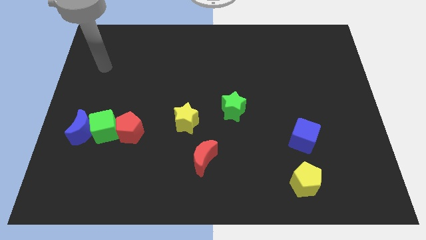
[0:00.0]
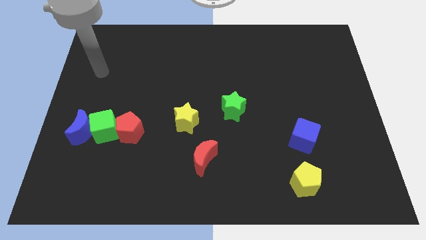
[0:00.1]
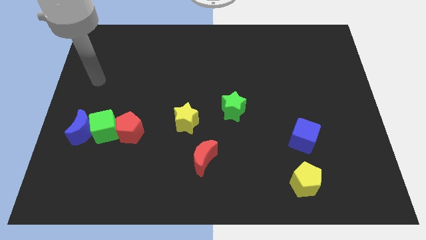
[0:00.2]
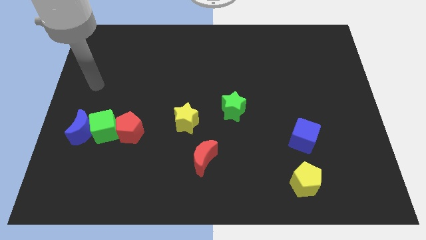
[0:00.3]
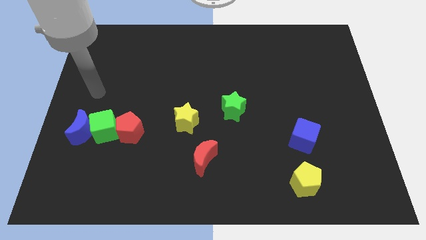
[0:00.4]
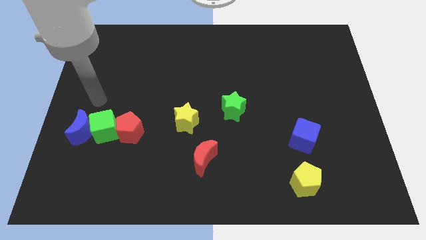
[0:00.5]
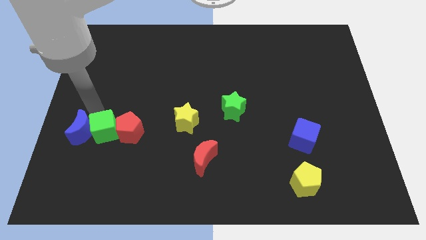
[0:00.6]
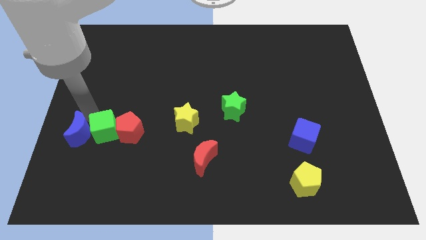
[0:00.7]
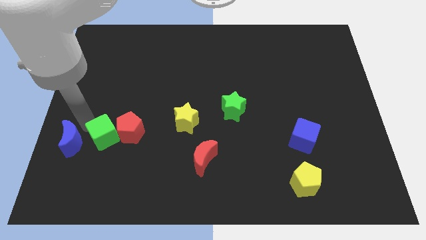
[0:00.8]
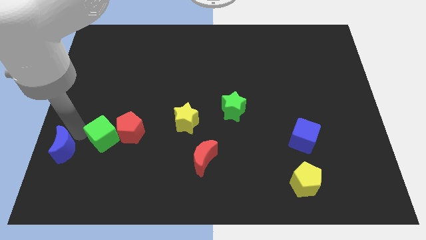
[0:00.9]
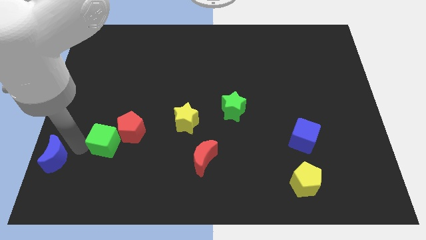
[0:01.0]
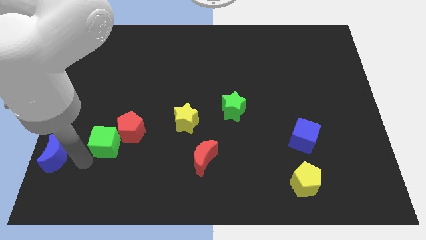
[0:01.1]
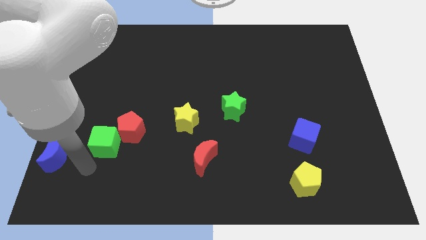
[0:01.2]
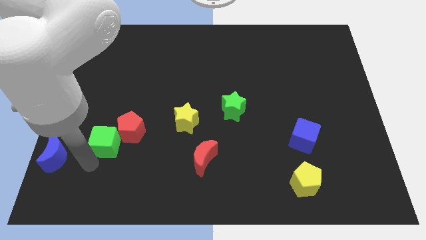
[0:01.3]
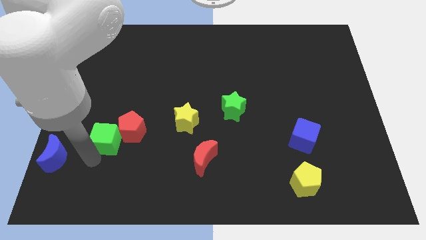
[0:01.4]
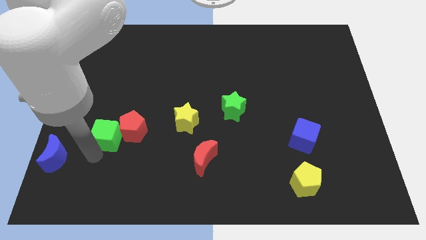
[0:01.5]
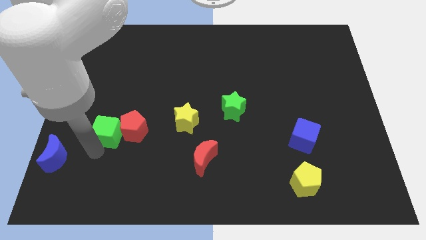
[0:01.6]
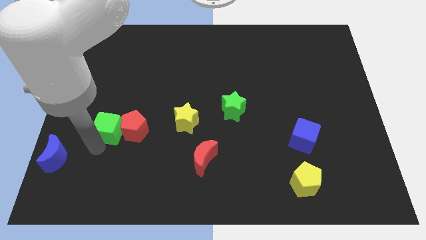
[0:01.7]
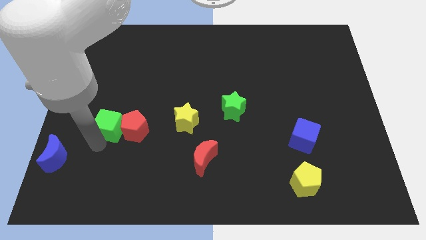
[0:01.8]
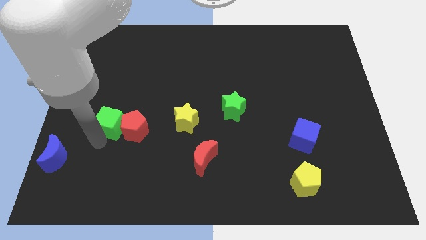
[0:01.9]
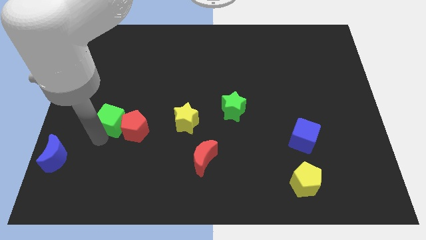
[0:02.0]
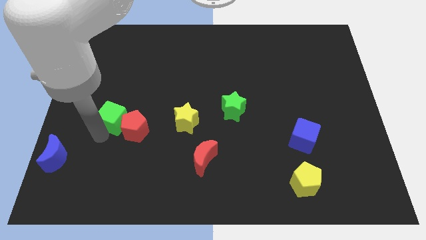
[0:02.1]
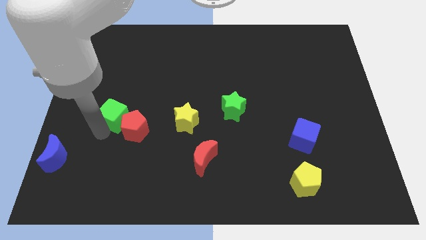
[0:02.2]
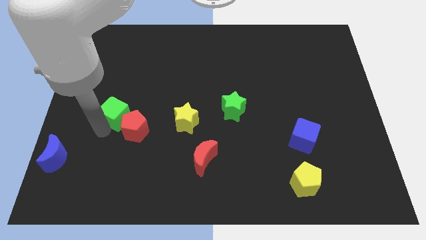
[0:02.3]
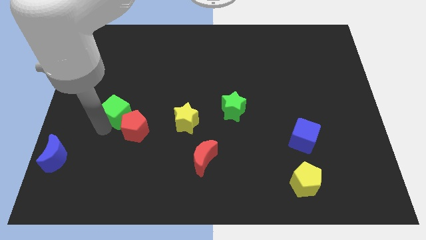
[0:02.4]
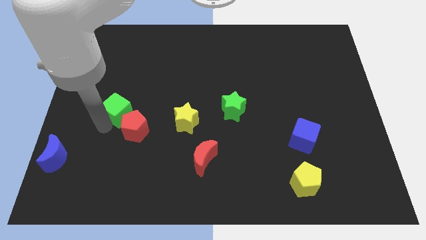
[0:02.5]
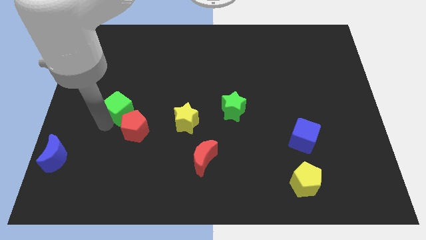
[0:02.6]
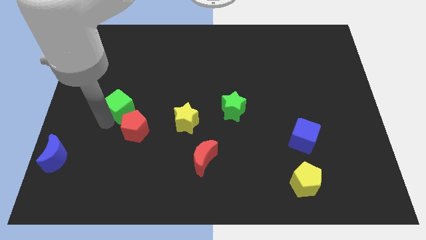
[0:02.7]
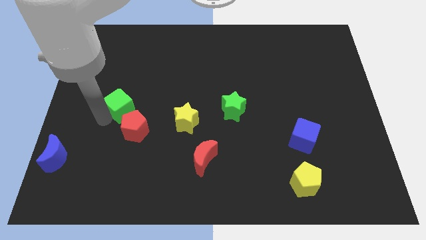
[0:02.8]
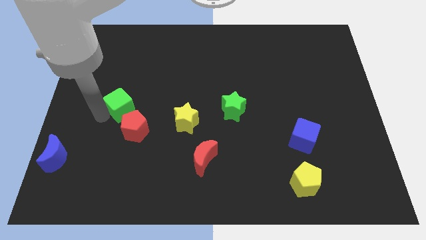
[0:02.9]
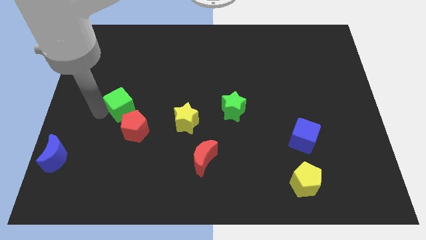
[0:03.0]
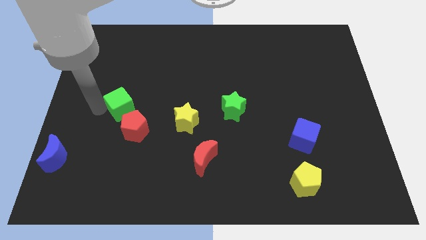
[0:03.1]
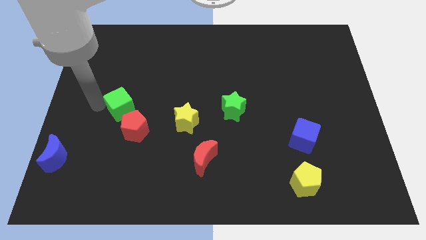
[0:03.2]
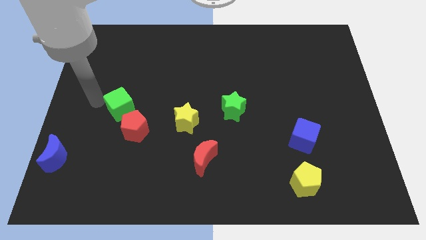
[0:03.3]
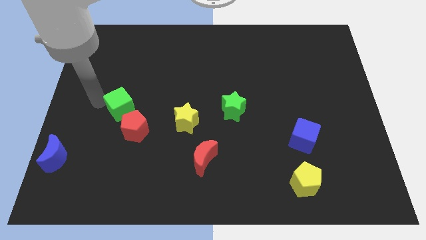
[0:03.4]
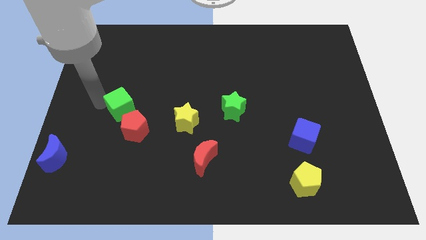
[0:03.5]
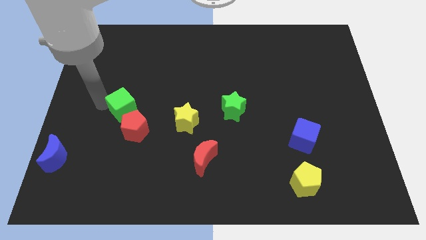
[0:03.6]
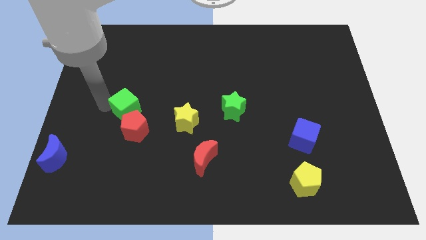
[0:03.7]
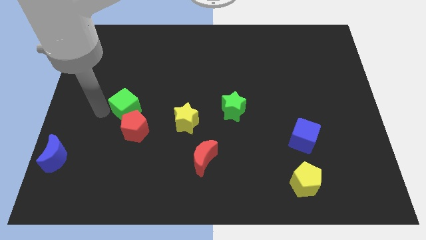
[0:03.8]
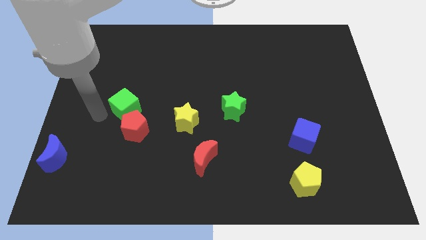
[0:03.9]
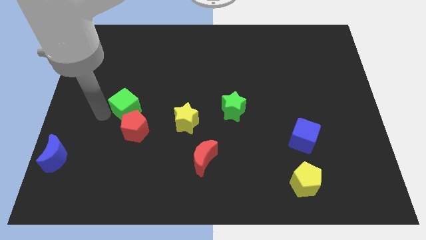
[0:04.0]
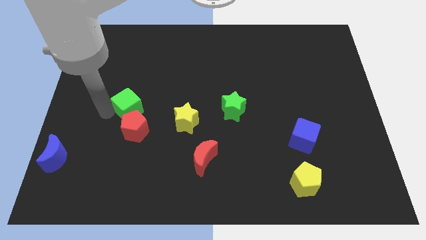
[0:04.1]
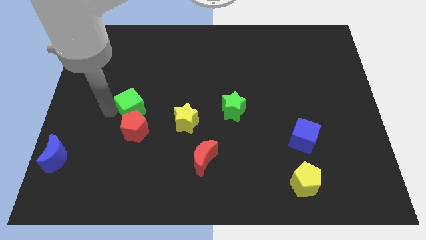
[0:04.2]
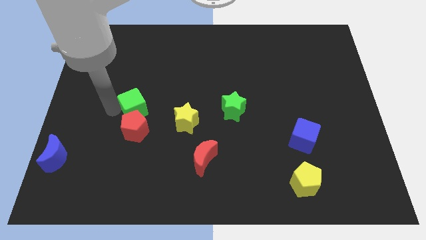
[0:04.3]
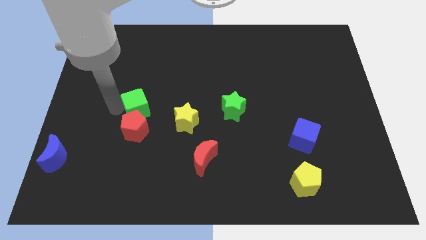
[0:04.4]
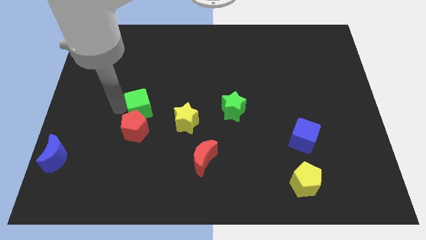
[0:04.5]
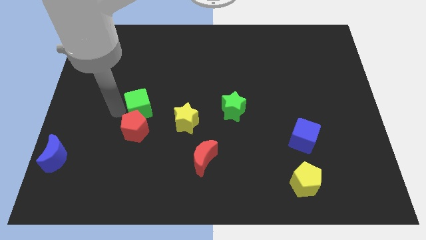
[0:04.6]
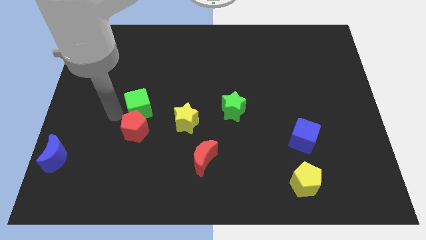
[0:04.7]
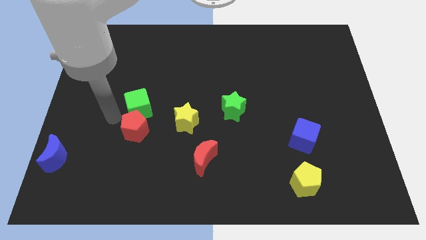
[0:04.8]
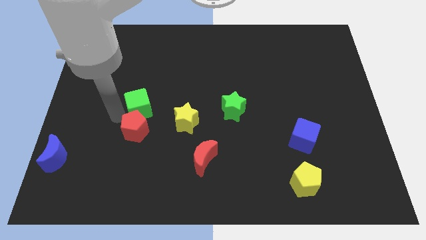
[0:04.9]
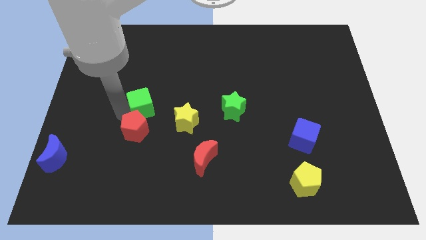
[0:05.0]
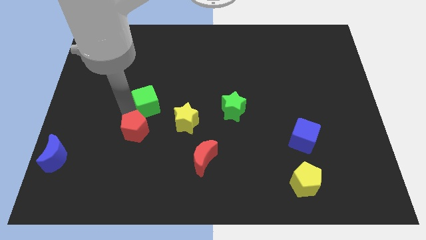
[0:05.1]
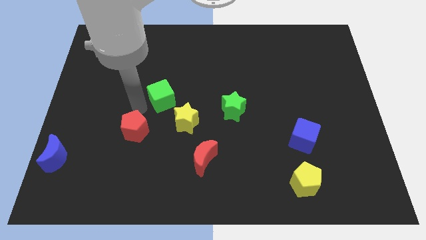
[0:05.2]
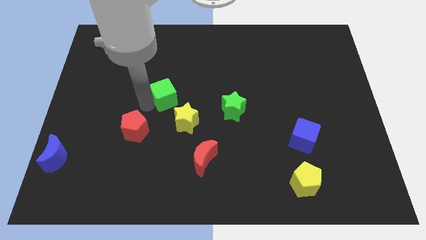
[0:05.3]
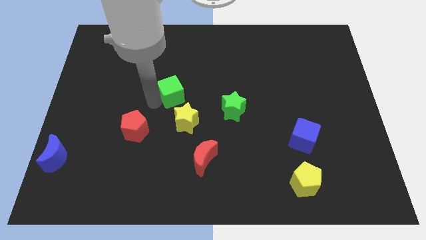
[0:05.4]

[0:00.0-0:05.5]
push the green cube to the top side of the yellow star

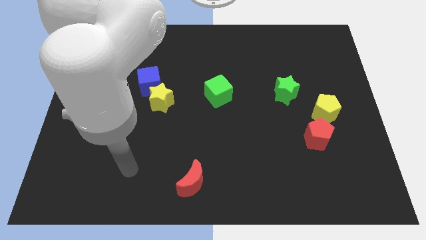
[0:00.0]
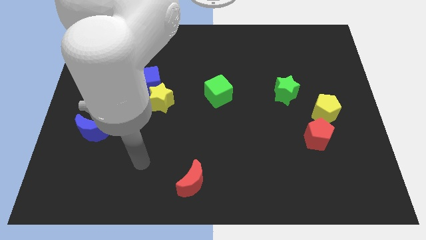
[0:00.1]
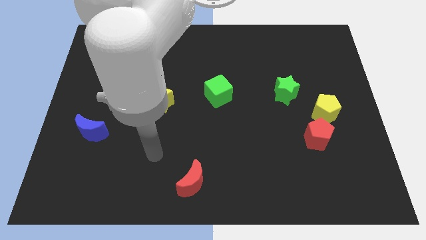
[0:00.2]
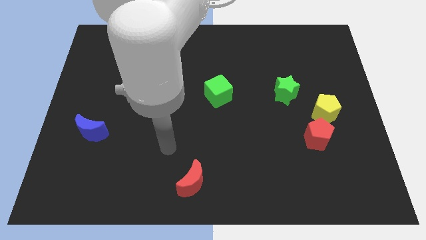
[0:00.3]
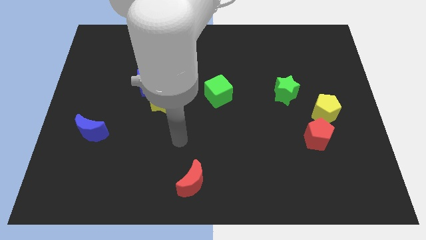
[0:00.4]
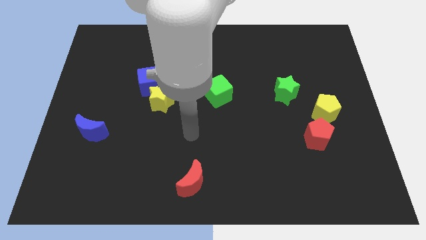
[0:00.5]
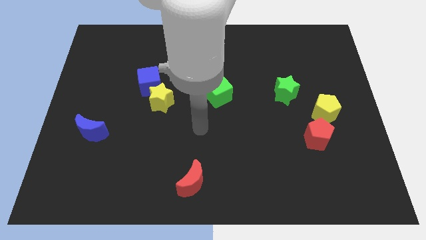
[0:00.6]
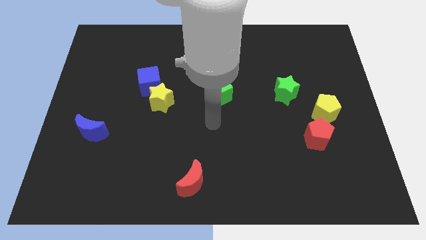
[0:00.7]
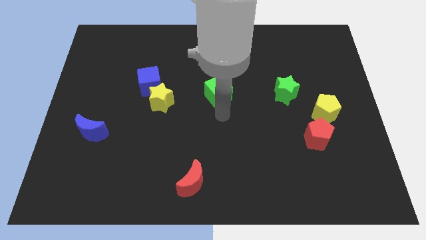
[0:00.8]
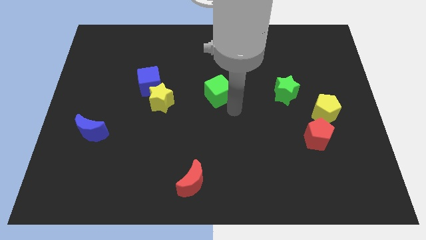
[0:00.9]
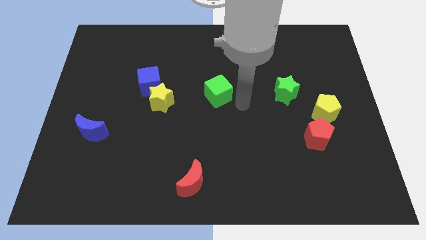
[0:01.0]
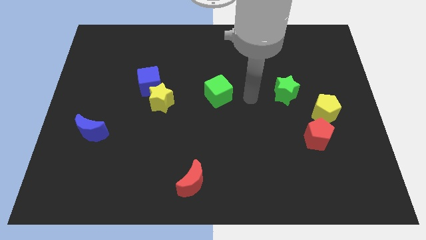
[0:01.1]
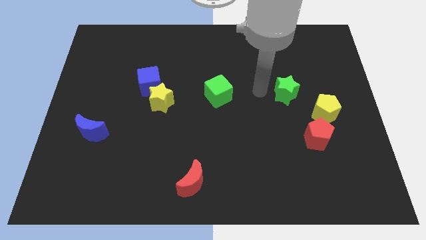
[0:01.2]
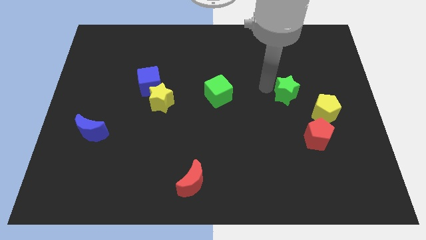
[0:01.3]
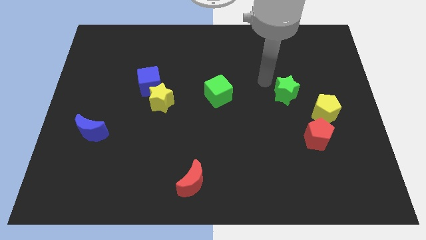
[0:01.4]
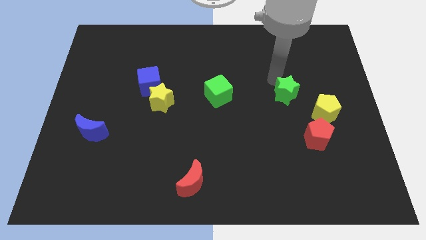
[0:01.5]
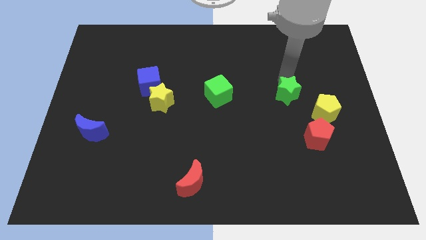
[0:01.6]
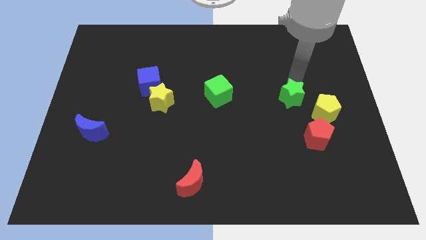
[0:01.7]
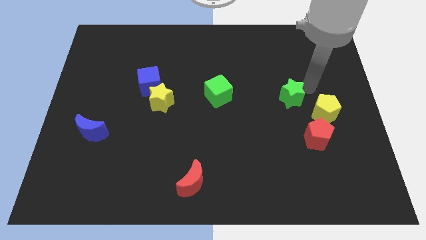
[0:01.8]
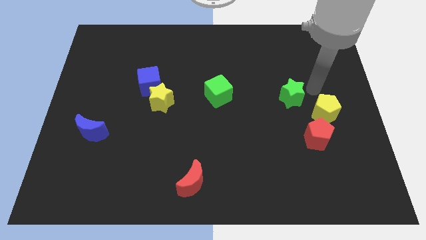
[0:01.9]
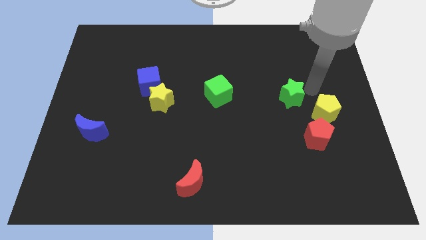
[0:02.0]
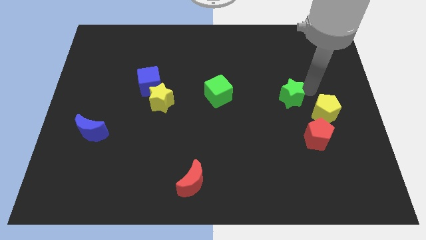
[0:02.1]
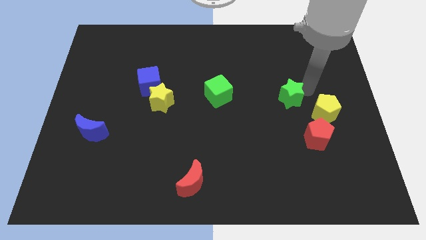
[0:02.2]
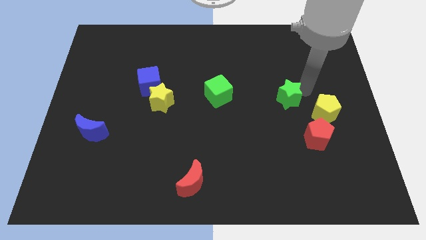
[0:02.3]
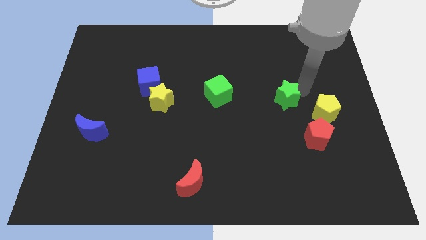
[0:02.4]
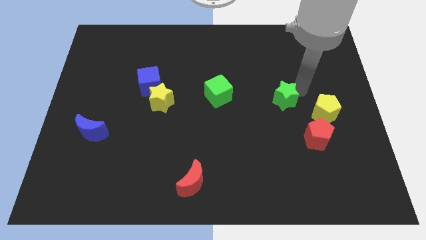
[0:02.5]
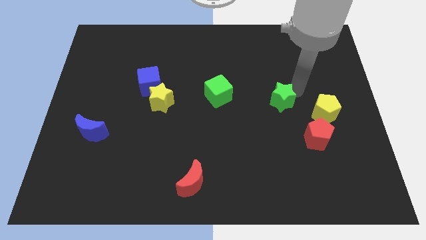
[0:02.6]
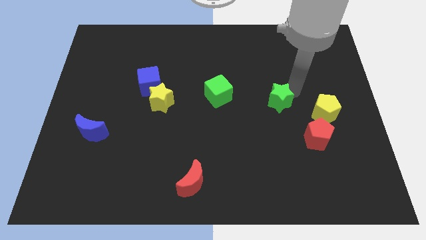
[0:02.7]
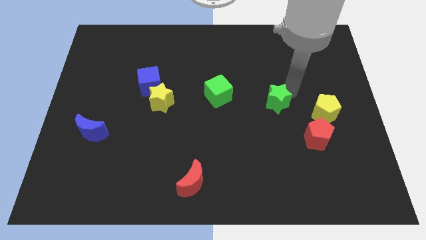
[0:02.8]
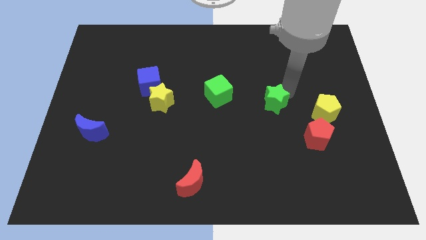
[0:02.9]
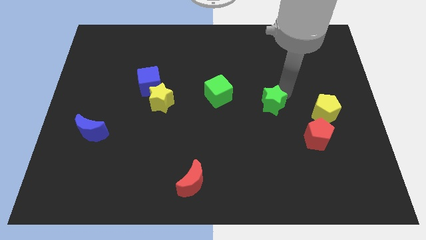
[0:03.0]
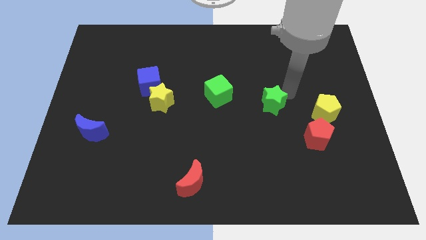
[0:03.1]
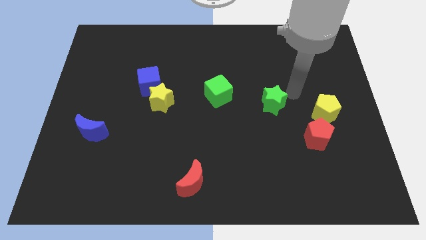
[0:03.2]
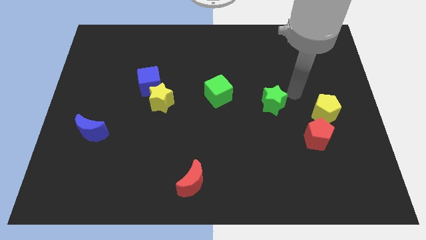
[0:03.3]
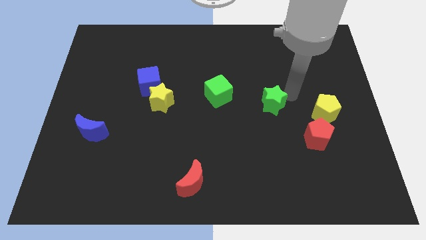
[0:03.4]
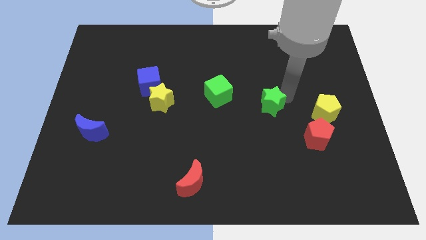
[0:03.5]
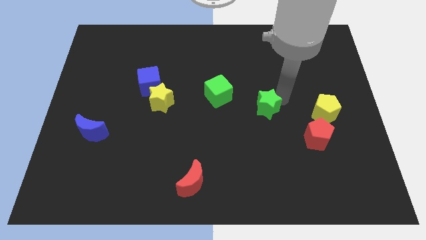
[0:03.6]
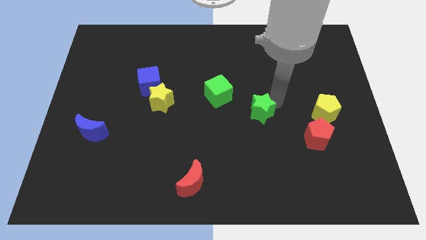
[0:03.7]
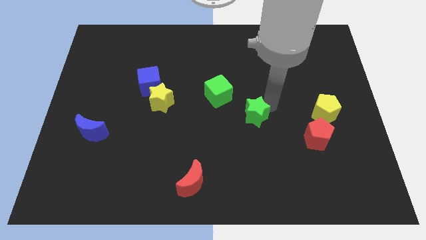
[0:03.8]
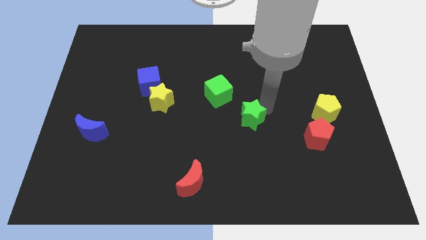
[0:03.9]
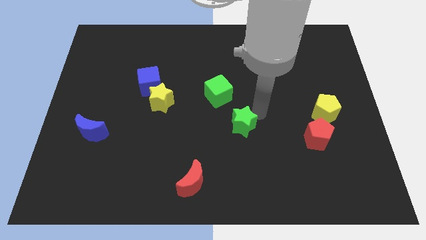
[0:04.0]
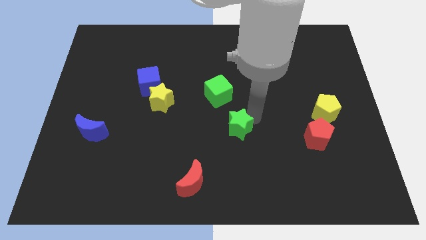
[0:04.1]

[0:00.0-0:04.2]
move the green star to the bottom of the green cube
